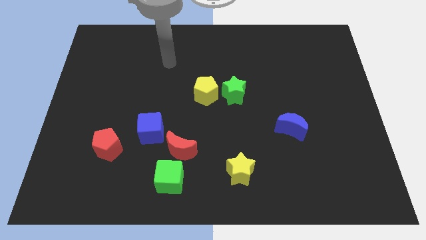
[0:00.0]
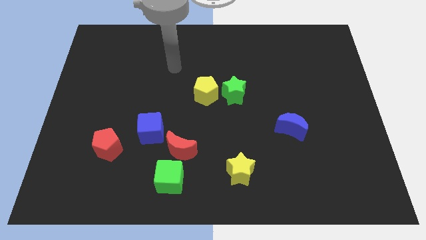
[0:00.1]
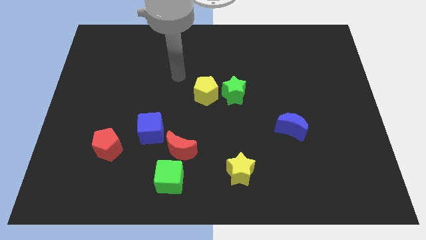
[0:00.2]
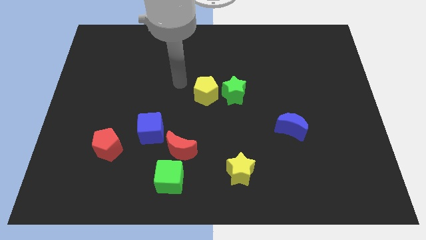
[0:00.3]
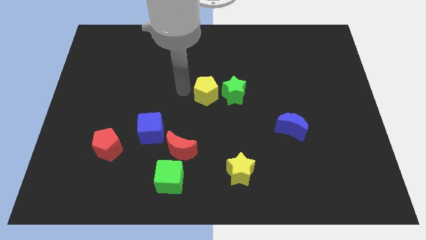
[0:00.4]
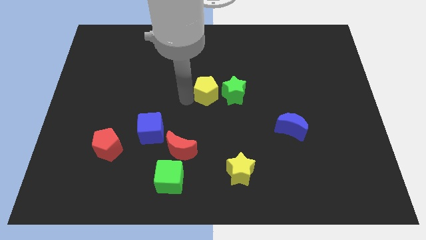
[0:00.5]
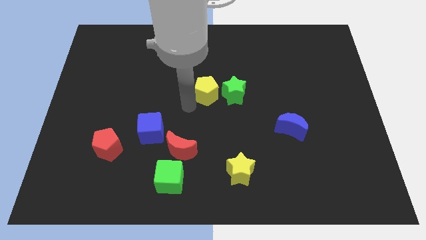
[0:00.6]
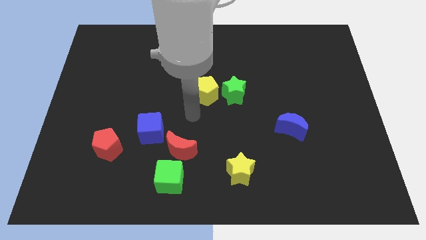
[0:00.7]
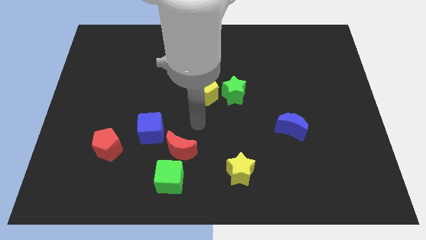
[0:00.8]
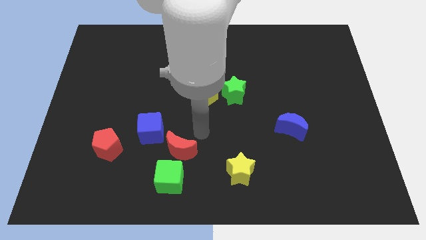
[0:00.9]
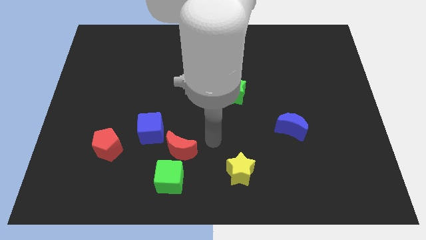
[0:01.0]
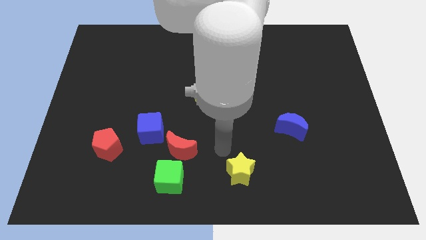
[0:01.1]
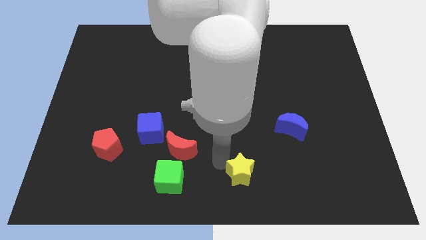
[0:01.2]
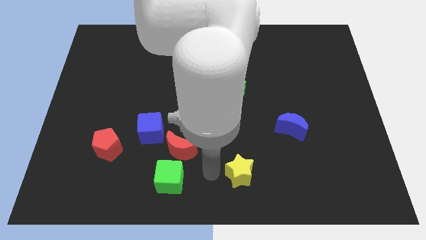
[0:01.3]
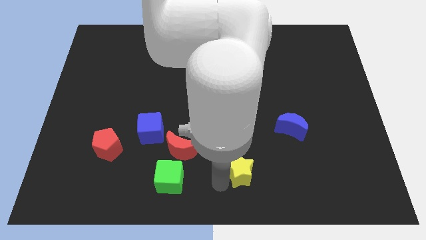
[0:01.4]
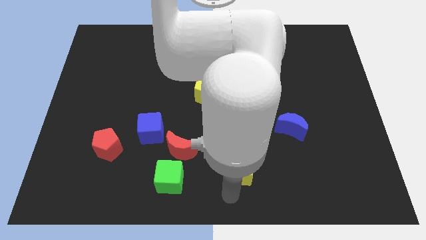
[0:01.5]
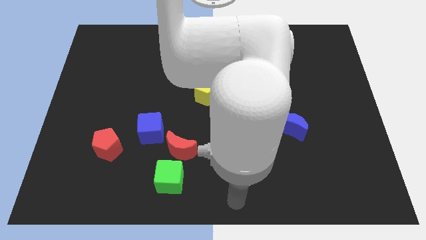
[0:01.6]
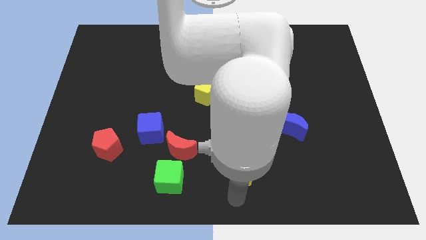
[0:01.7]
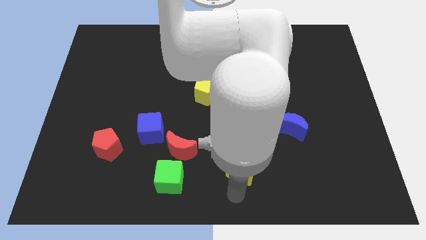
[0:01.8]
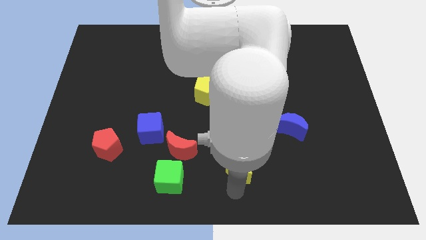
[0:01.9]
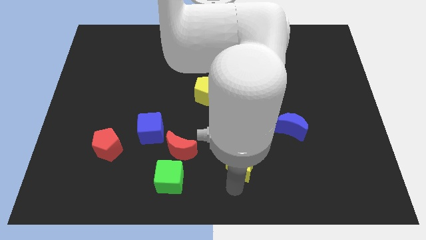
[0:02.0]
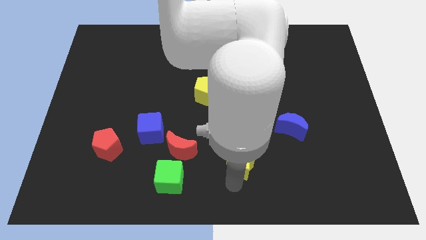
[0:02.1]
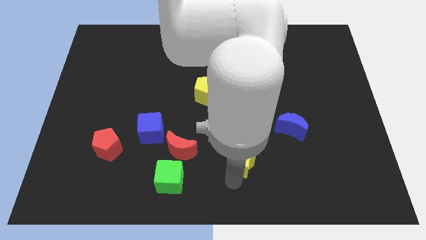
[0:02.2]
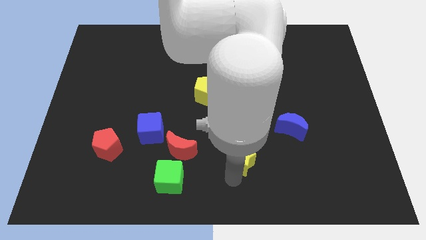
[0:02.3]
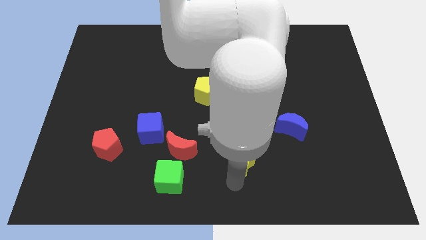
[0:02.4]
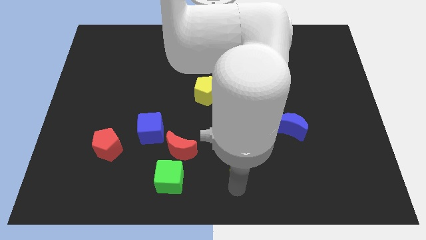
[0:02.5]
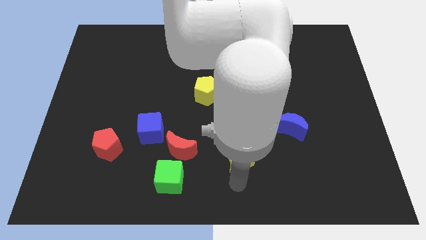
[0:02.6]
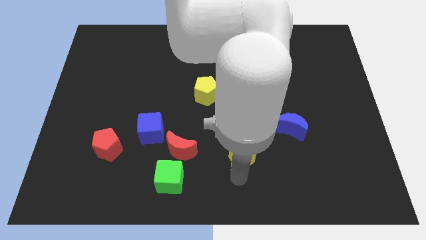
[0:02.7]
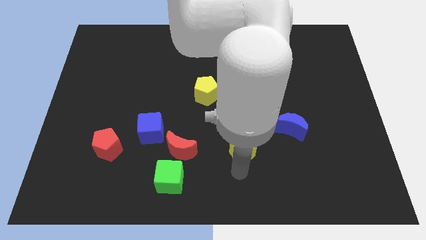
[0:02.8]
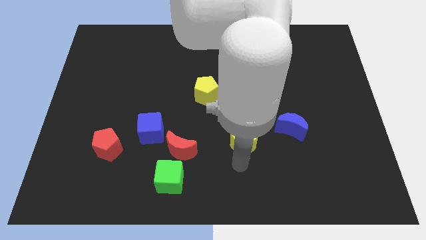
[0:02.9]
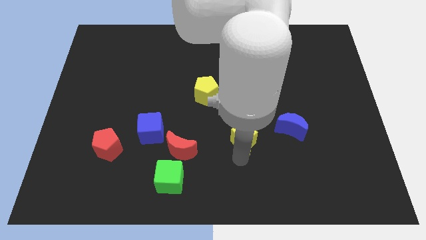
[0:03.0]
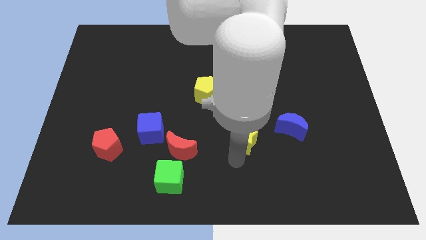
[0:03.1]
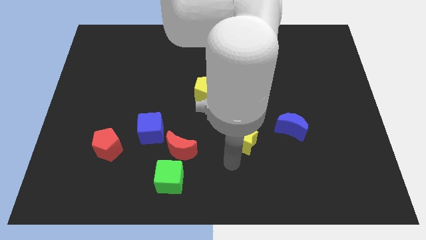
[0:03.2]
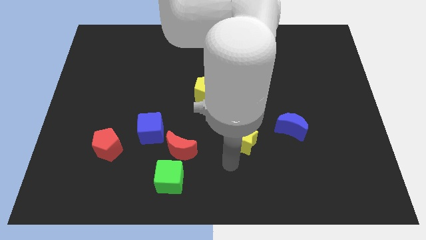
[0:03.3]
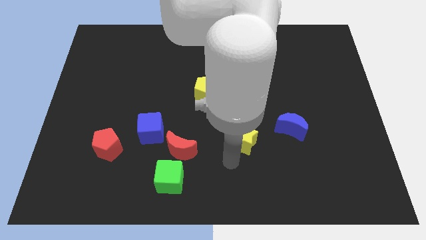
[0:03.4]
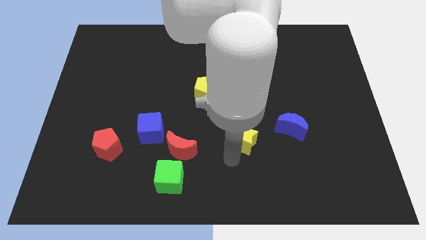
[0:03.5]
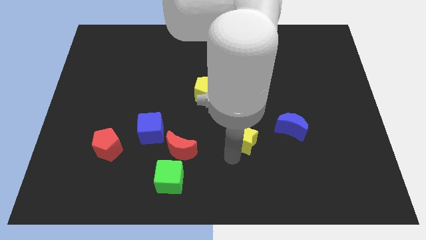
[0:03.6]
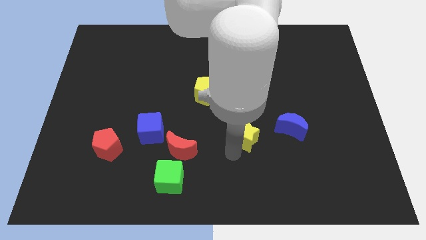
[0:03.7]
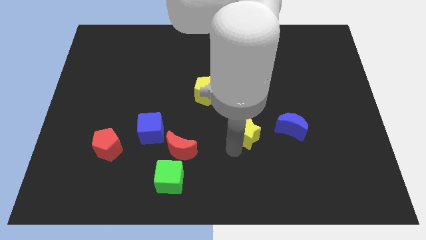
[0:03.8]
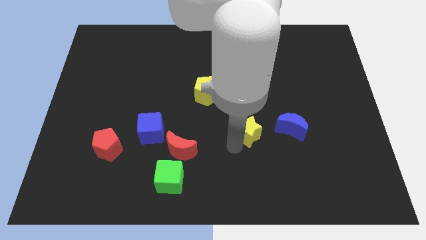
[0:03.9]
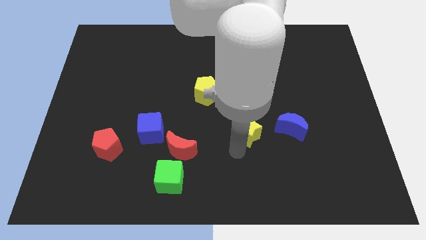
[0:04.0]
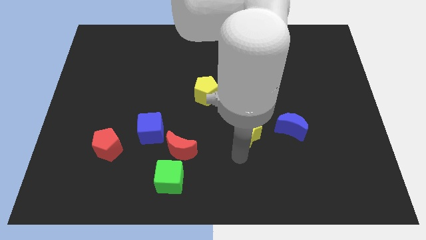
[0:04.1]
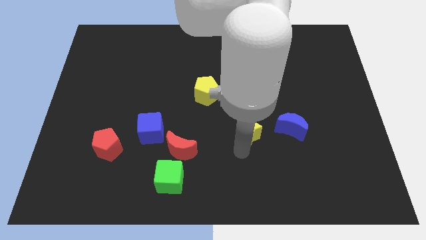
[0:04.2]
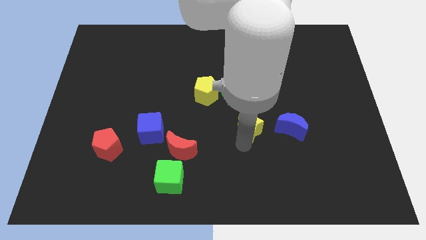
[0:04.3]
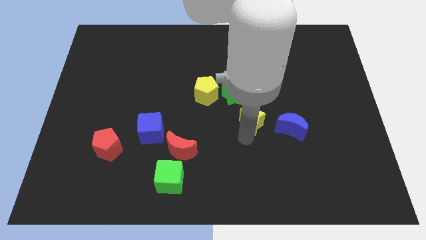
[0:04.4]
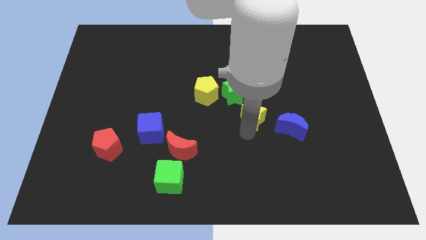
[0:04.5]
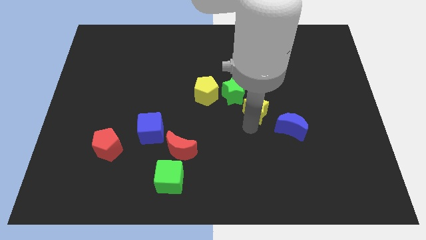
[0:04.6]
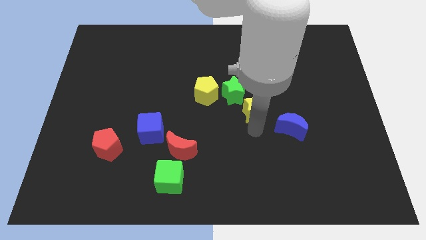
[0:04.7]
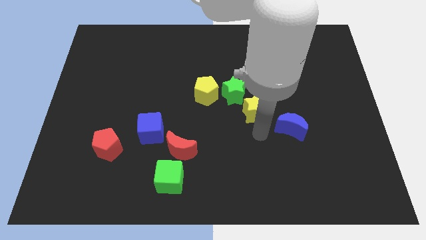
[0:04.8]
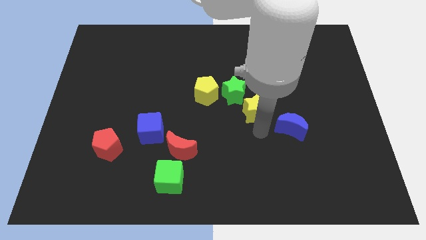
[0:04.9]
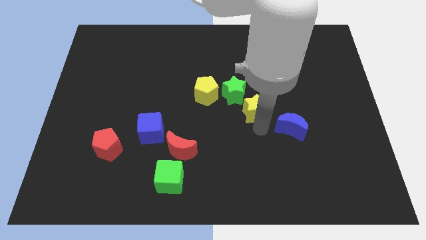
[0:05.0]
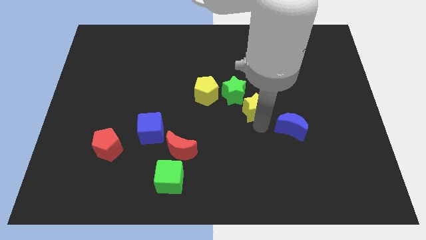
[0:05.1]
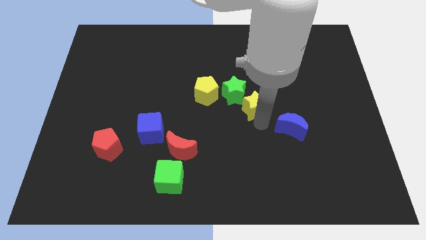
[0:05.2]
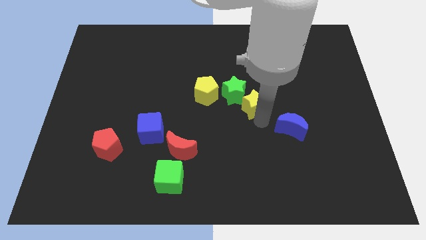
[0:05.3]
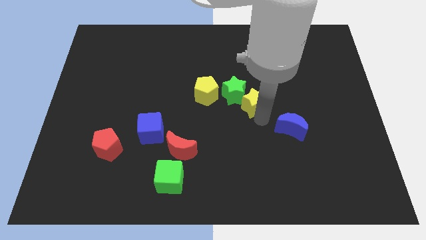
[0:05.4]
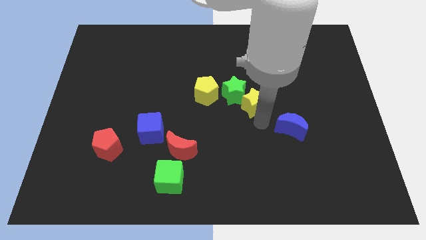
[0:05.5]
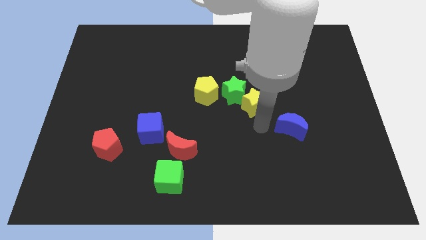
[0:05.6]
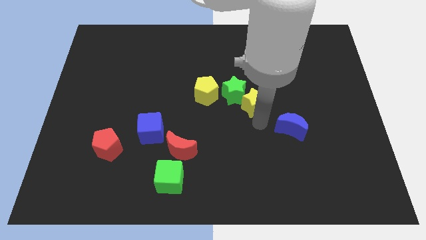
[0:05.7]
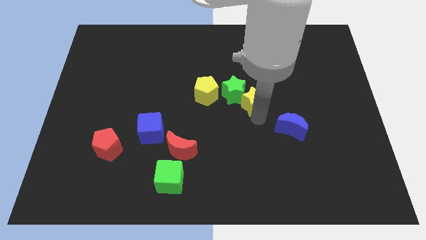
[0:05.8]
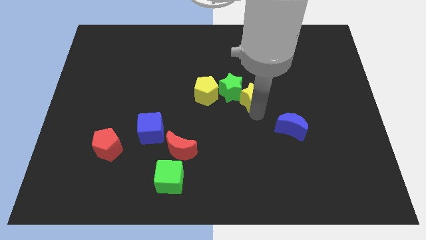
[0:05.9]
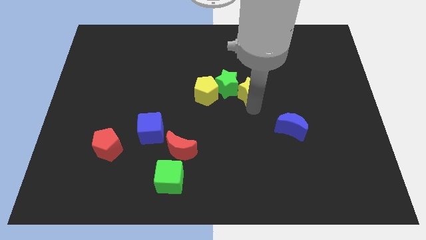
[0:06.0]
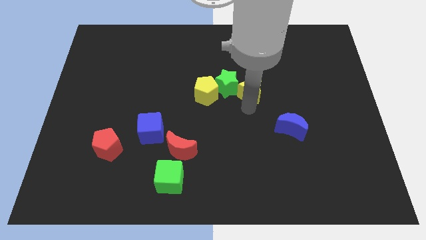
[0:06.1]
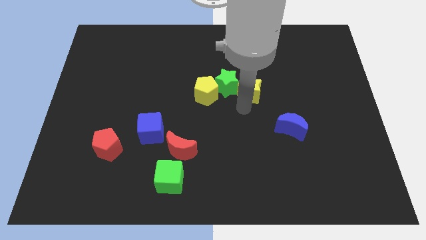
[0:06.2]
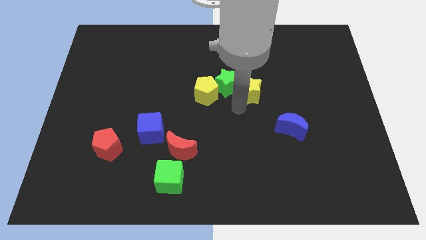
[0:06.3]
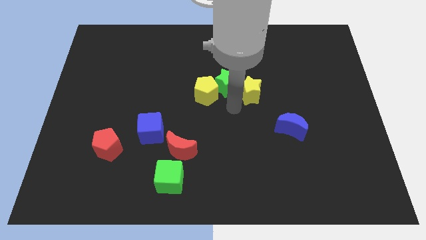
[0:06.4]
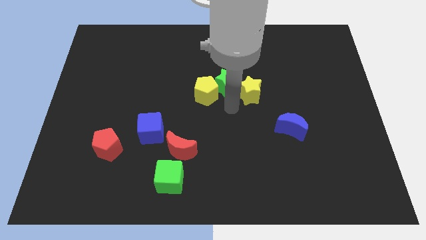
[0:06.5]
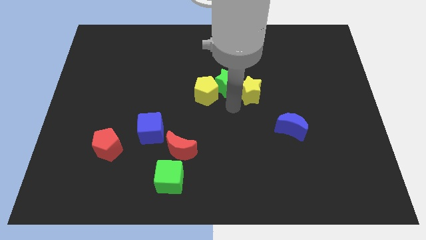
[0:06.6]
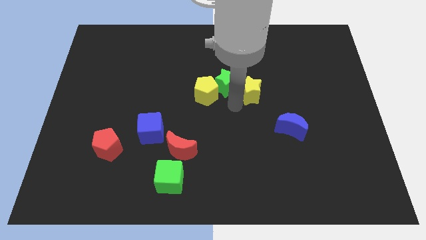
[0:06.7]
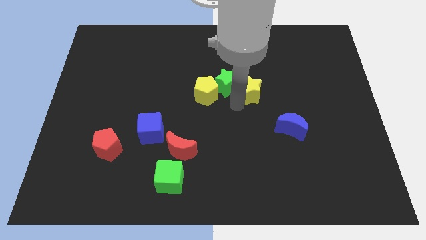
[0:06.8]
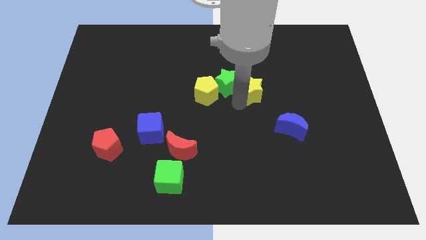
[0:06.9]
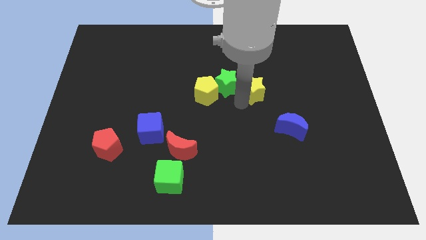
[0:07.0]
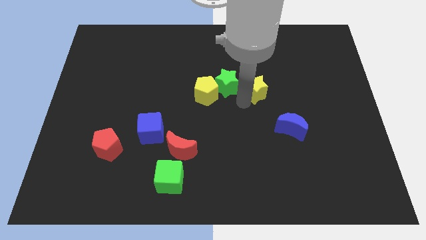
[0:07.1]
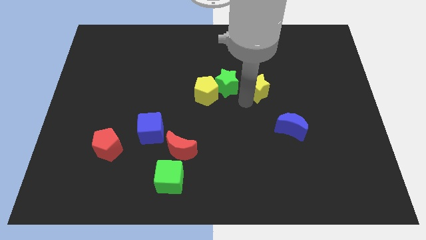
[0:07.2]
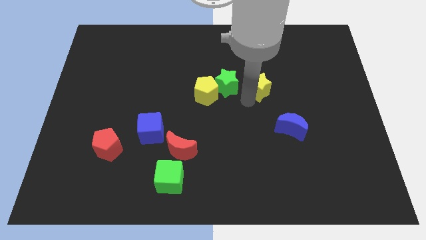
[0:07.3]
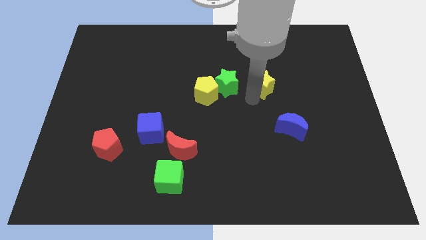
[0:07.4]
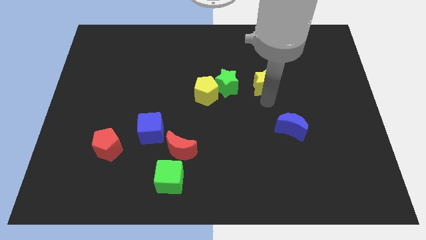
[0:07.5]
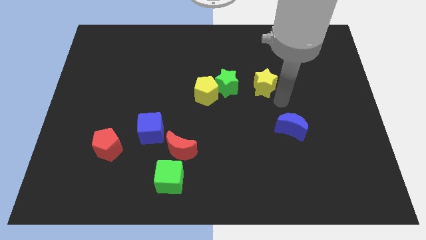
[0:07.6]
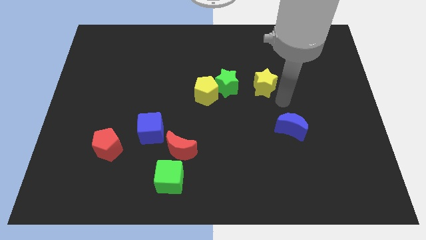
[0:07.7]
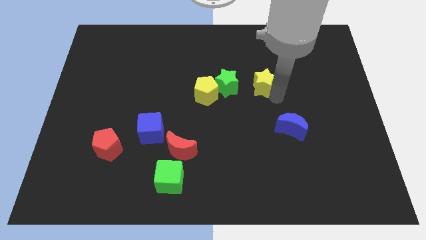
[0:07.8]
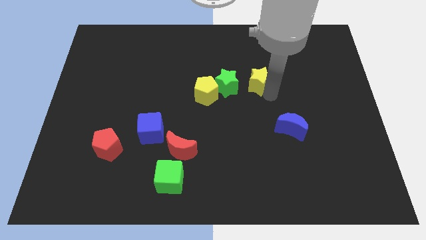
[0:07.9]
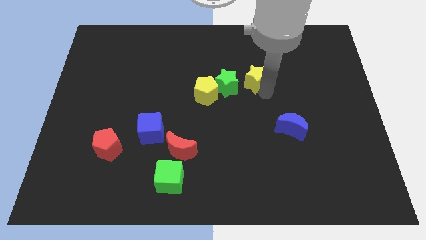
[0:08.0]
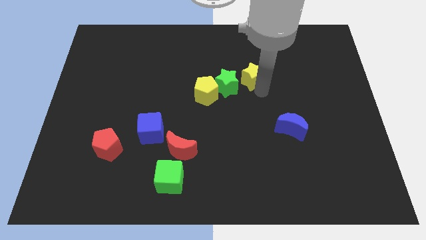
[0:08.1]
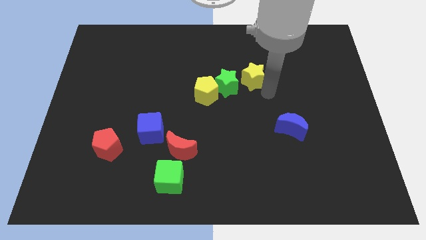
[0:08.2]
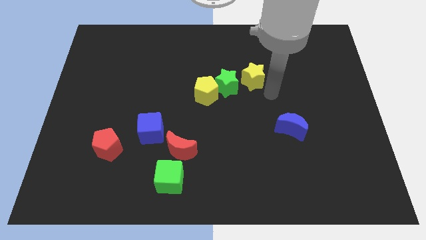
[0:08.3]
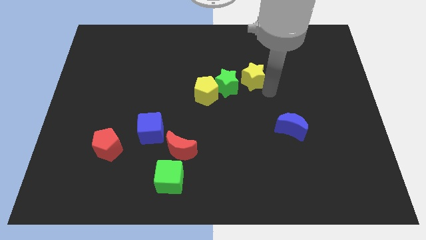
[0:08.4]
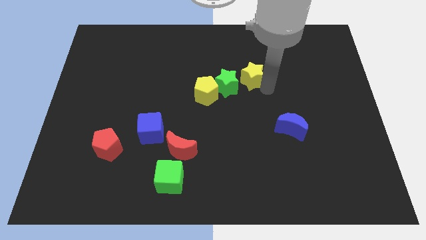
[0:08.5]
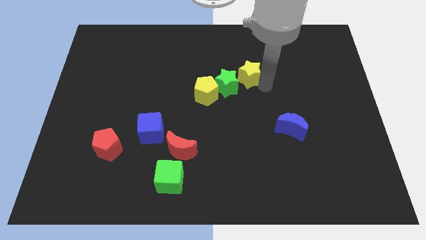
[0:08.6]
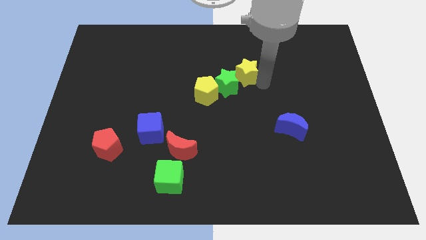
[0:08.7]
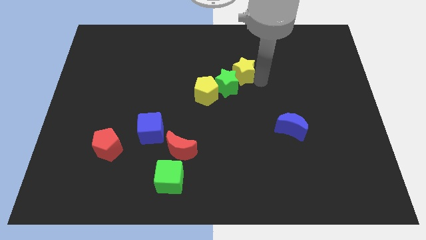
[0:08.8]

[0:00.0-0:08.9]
move the yellow star to the top side of the green star
